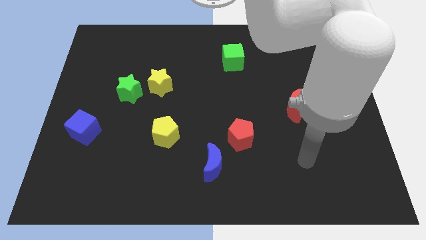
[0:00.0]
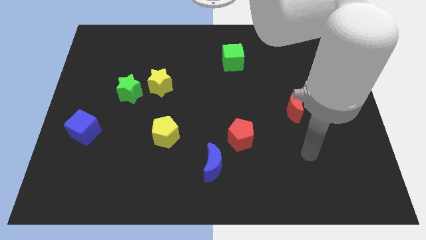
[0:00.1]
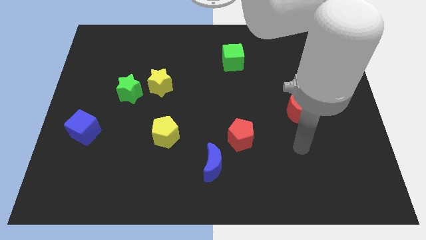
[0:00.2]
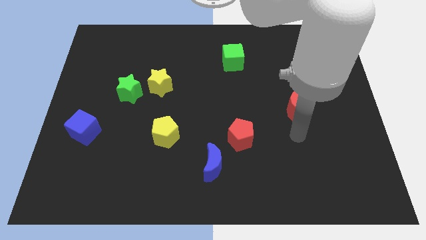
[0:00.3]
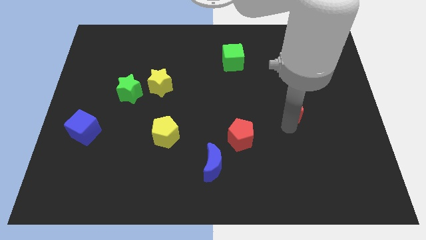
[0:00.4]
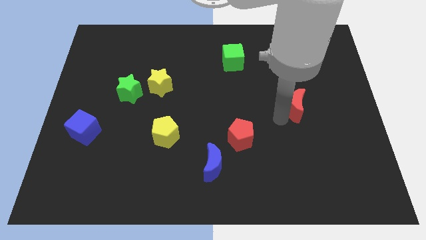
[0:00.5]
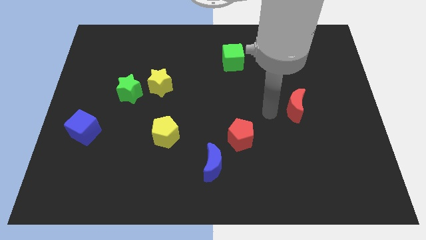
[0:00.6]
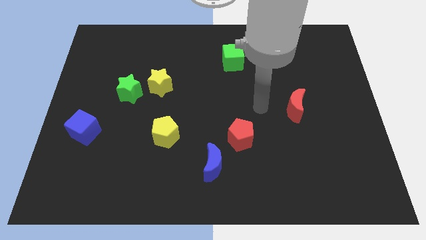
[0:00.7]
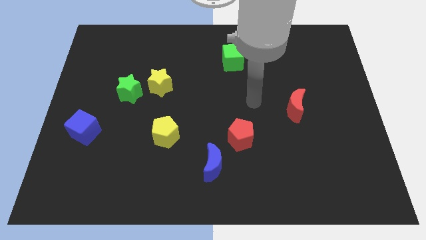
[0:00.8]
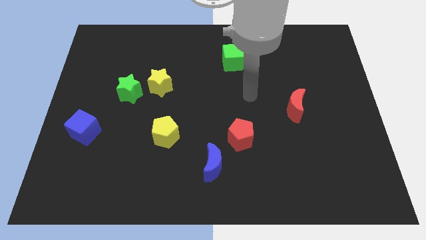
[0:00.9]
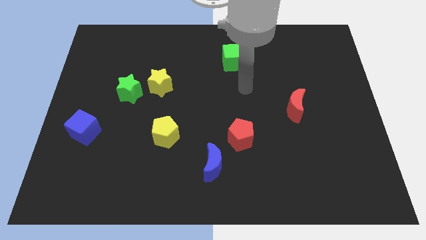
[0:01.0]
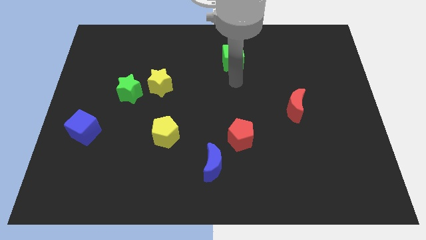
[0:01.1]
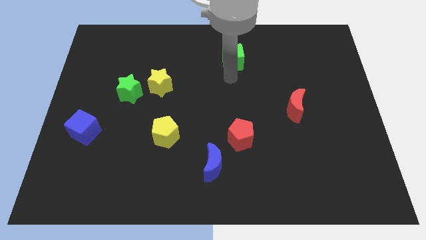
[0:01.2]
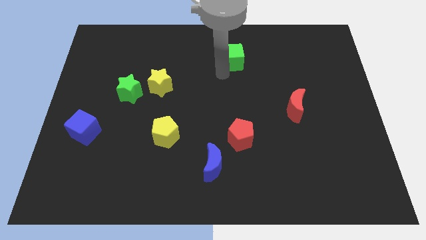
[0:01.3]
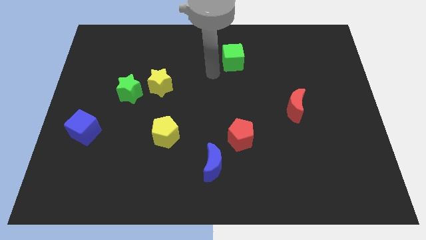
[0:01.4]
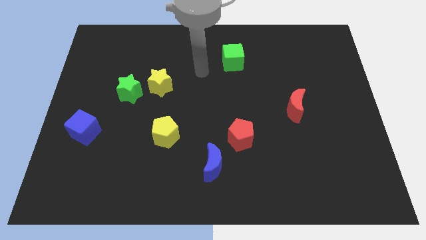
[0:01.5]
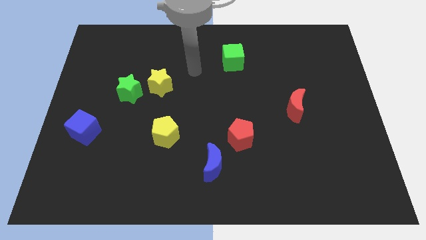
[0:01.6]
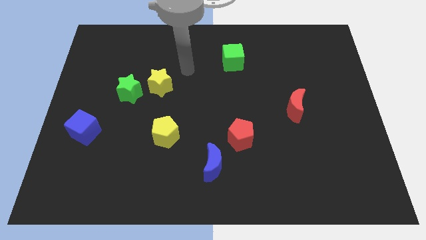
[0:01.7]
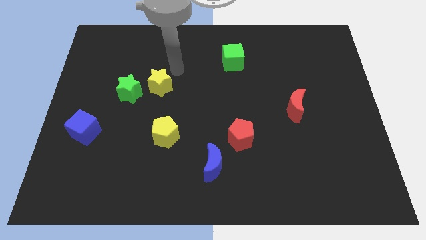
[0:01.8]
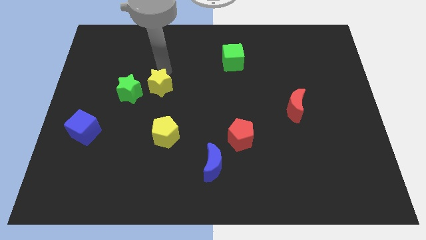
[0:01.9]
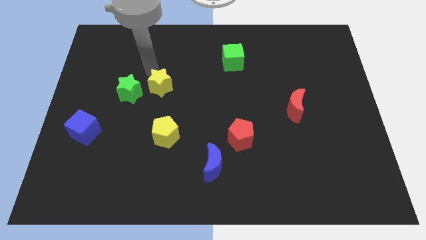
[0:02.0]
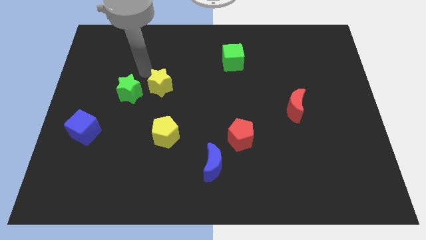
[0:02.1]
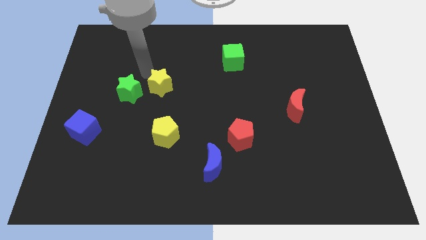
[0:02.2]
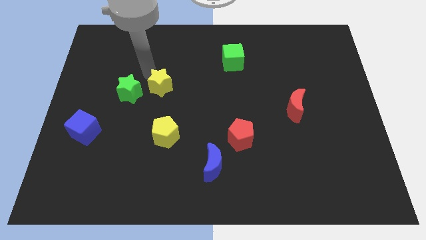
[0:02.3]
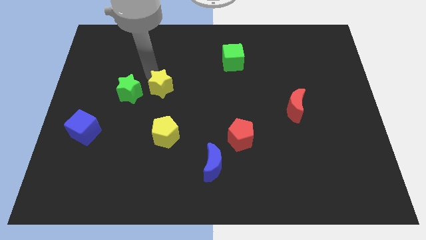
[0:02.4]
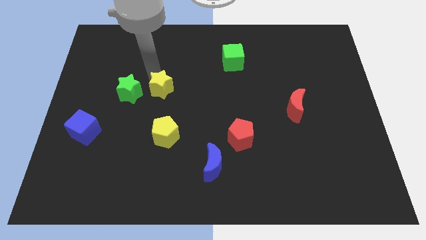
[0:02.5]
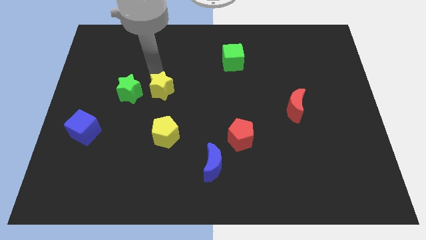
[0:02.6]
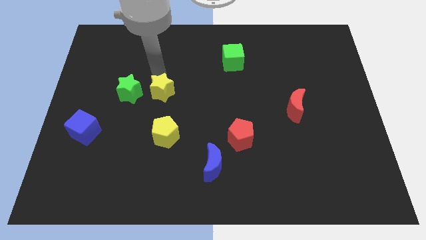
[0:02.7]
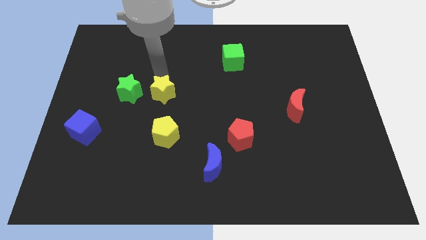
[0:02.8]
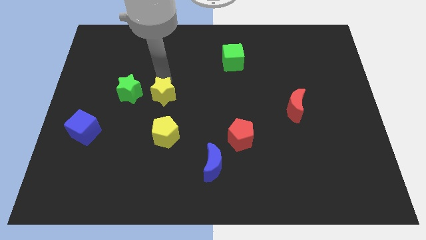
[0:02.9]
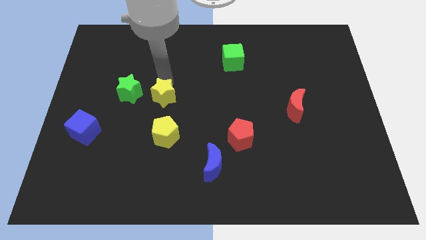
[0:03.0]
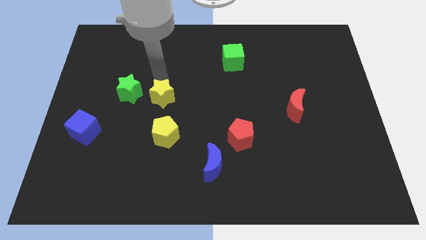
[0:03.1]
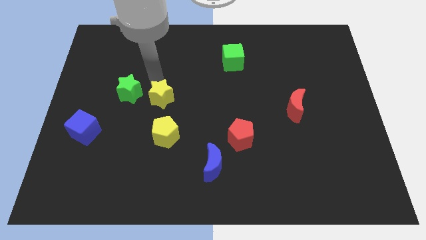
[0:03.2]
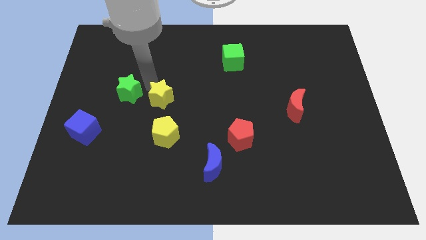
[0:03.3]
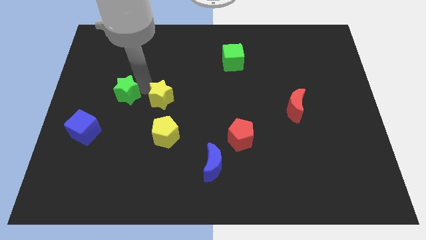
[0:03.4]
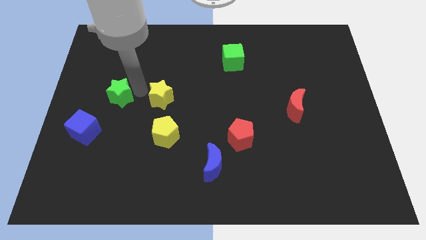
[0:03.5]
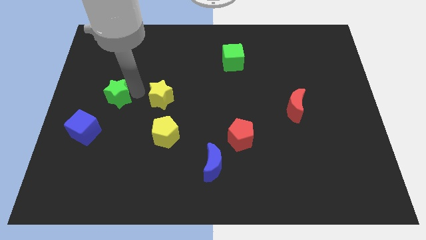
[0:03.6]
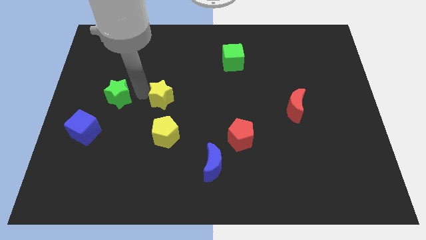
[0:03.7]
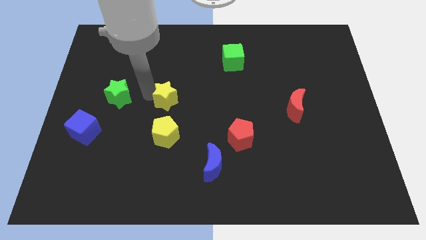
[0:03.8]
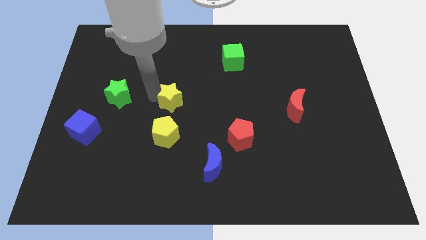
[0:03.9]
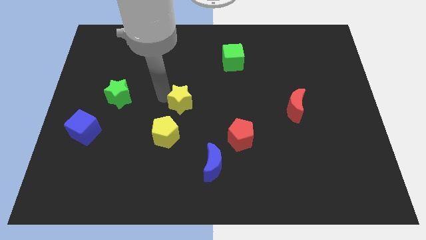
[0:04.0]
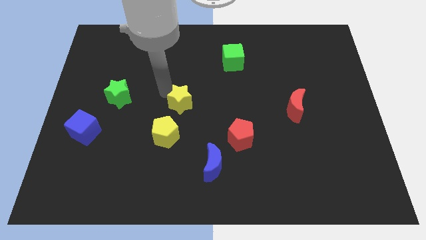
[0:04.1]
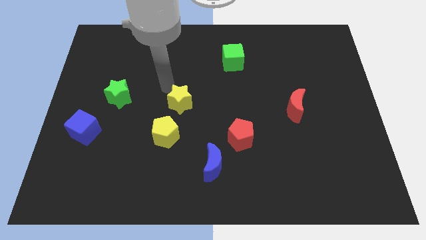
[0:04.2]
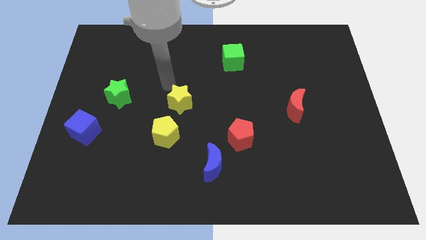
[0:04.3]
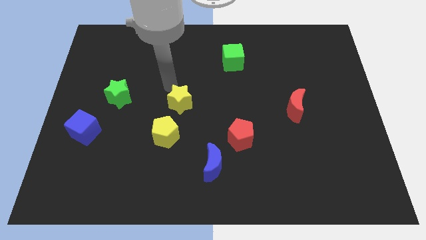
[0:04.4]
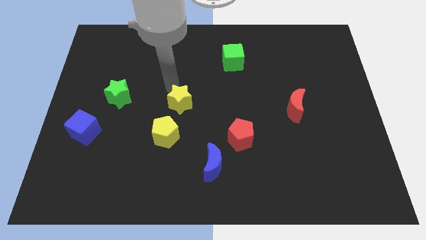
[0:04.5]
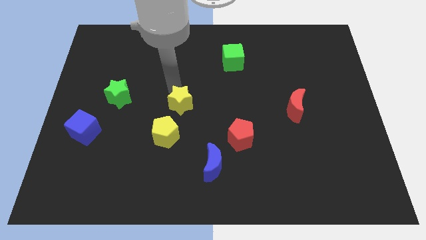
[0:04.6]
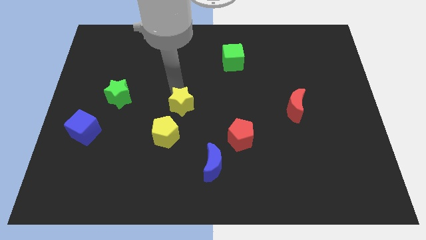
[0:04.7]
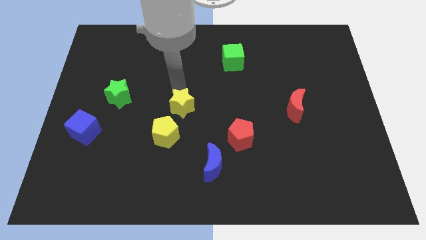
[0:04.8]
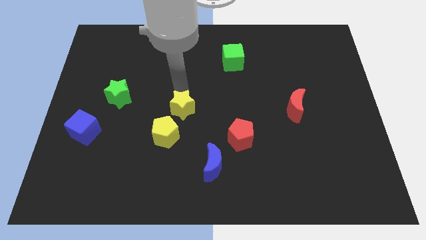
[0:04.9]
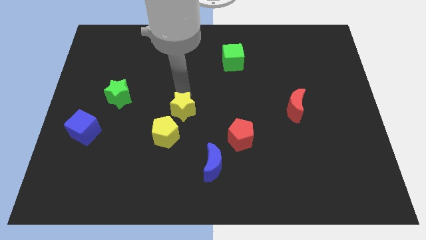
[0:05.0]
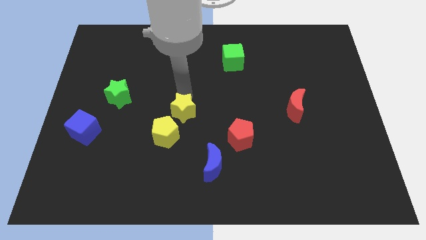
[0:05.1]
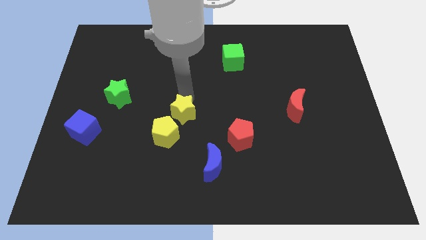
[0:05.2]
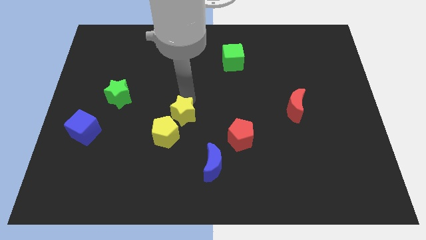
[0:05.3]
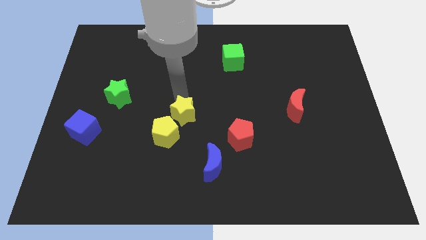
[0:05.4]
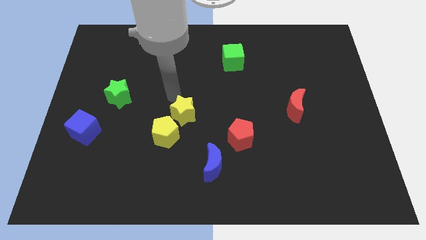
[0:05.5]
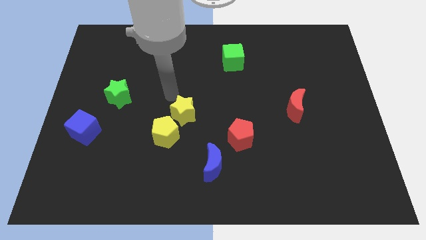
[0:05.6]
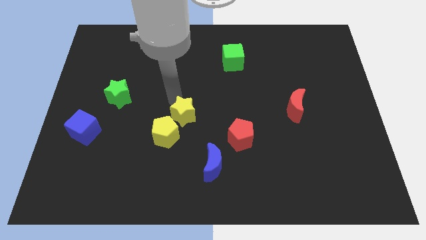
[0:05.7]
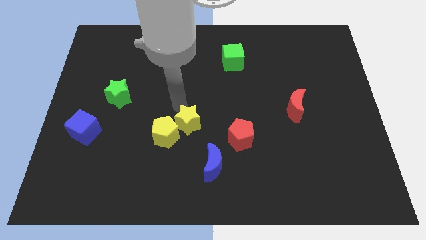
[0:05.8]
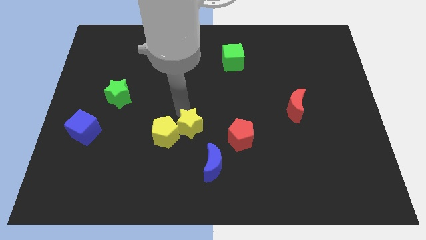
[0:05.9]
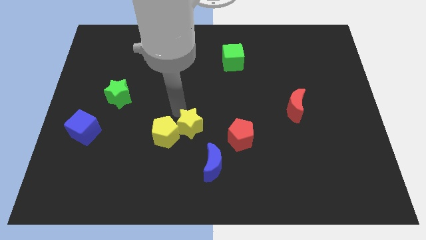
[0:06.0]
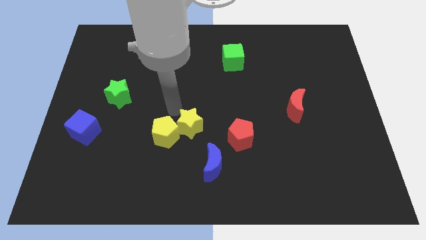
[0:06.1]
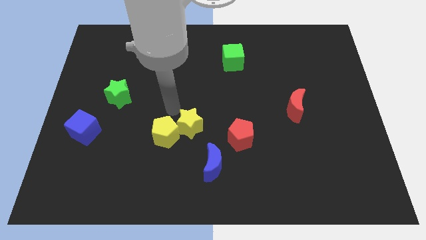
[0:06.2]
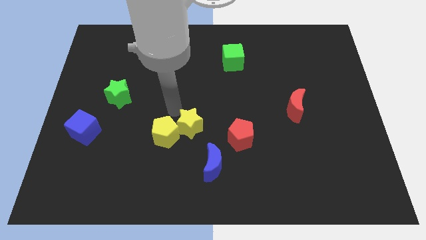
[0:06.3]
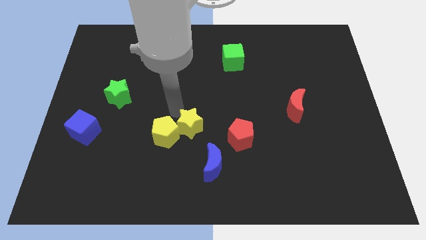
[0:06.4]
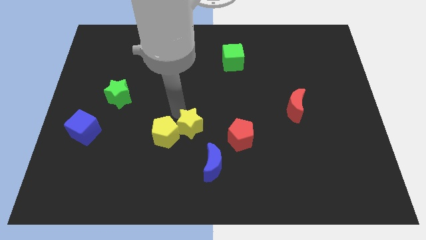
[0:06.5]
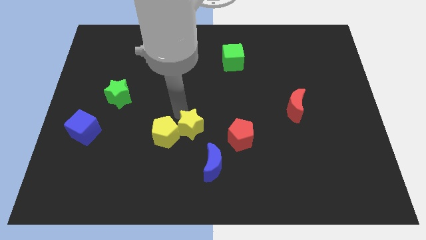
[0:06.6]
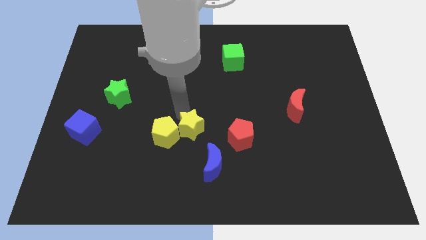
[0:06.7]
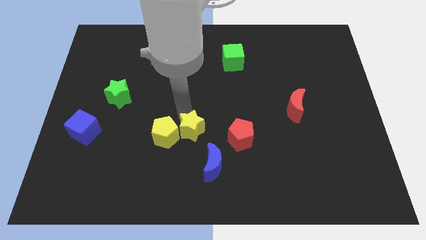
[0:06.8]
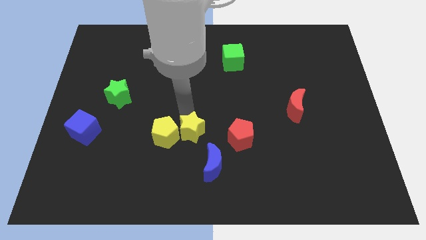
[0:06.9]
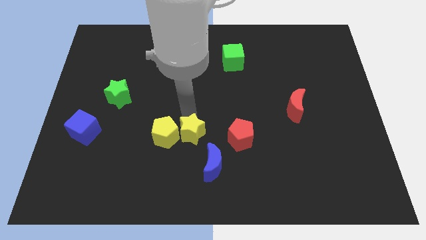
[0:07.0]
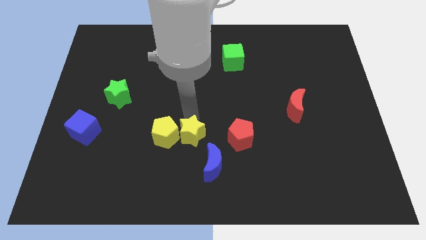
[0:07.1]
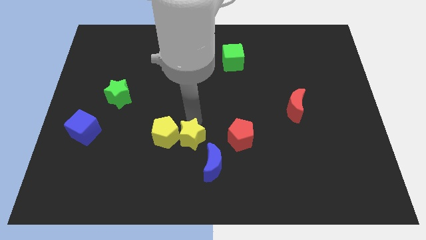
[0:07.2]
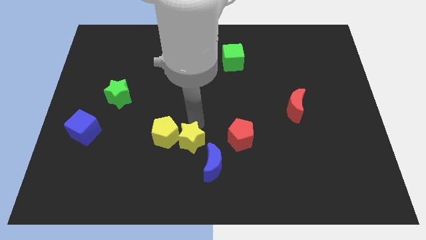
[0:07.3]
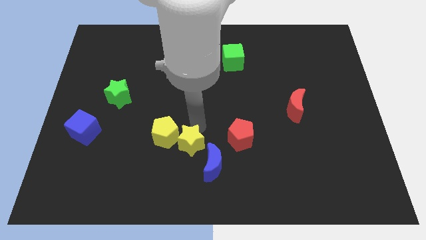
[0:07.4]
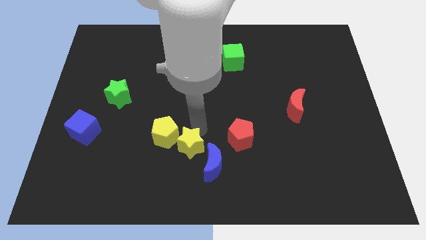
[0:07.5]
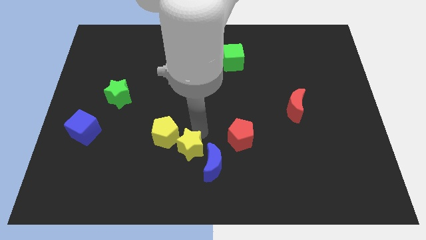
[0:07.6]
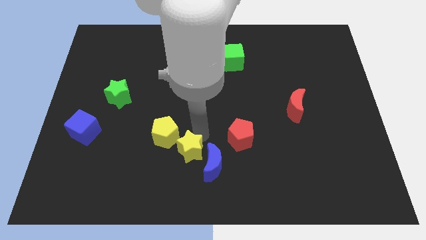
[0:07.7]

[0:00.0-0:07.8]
move the yellow star towards the blue moon
